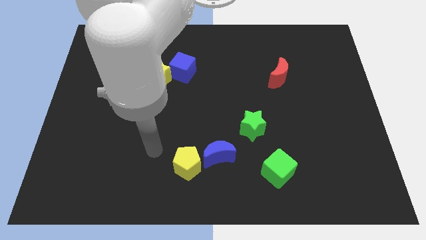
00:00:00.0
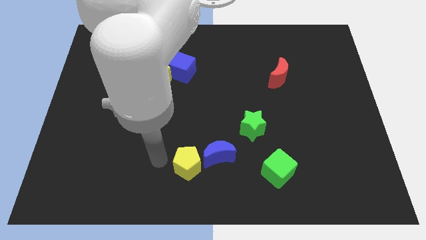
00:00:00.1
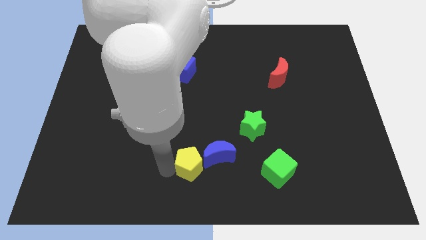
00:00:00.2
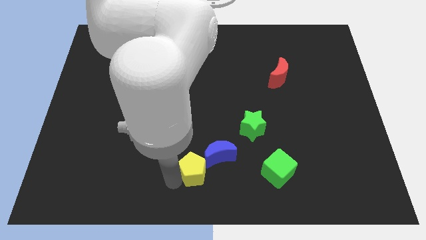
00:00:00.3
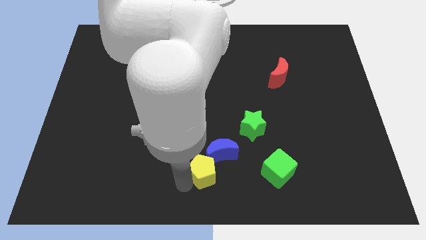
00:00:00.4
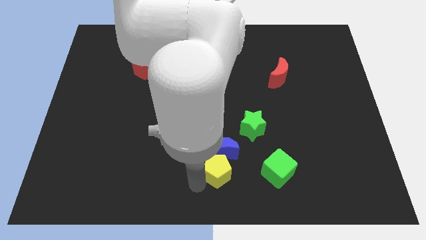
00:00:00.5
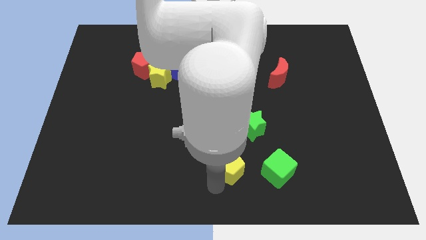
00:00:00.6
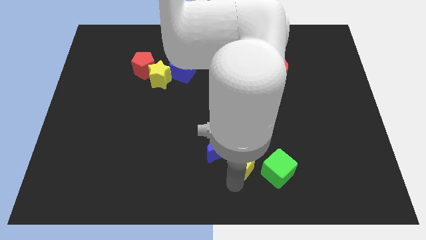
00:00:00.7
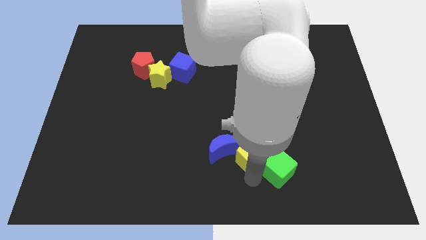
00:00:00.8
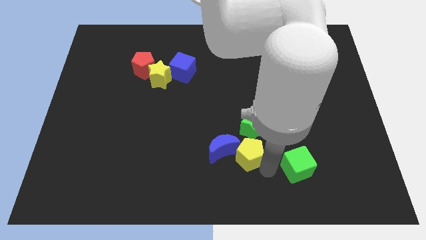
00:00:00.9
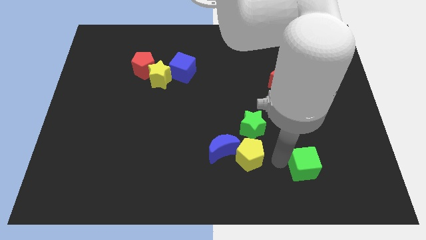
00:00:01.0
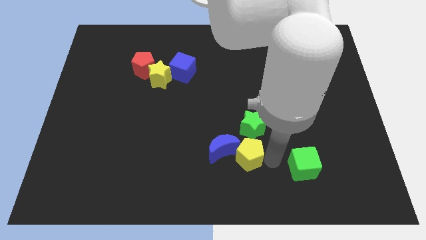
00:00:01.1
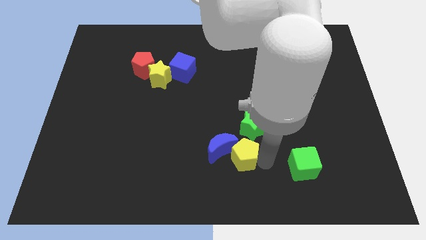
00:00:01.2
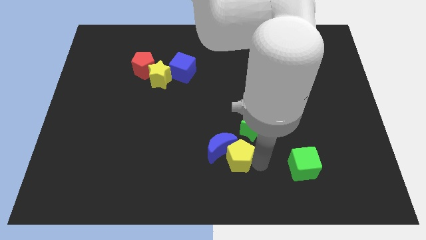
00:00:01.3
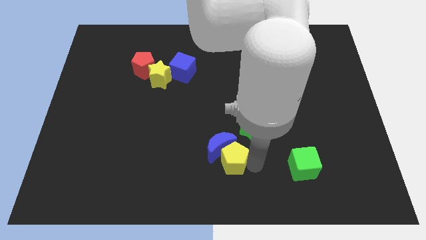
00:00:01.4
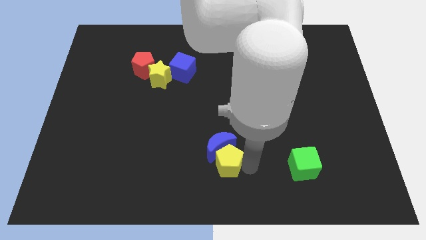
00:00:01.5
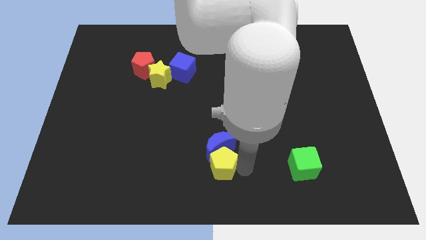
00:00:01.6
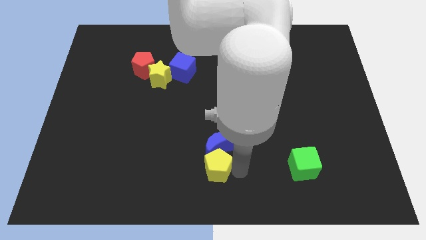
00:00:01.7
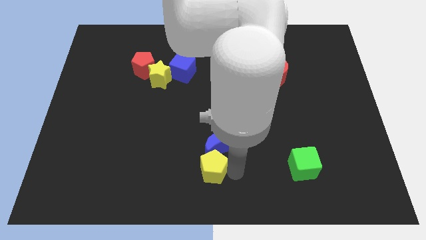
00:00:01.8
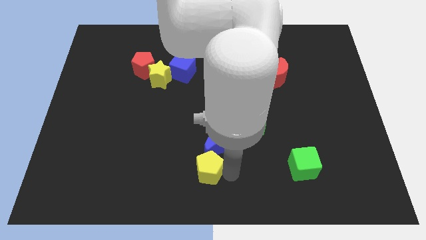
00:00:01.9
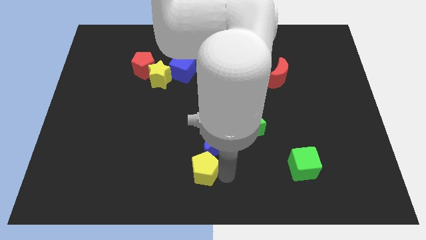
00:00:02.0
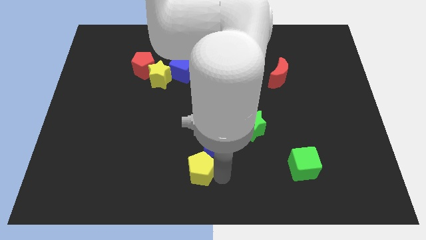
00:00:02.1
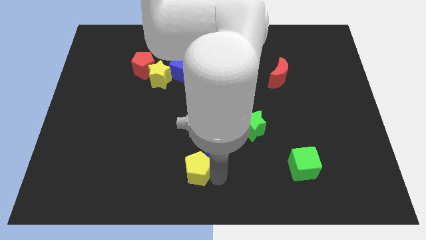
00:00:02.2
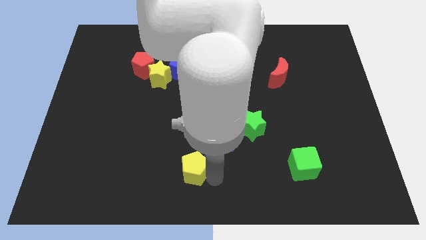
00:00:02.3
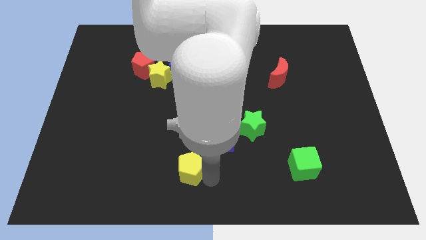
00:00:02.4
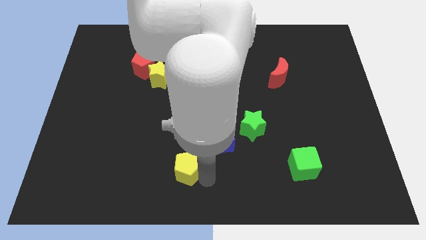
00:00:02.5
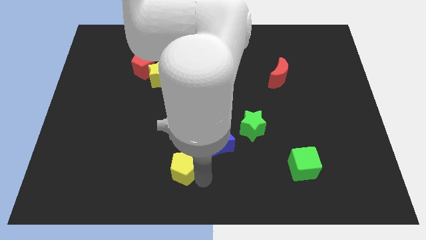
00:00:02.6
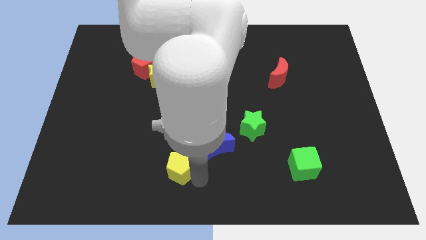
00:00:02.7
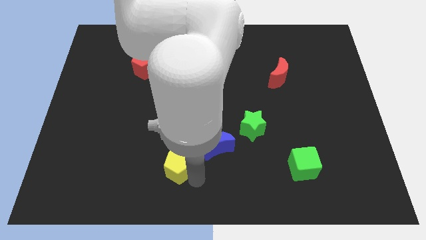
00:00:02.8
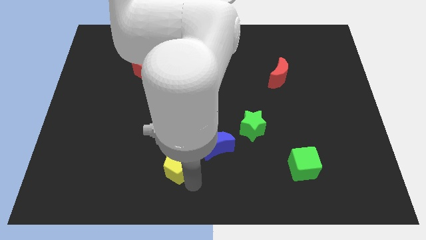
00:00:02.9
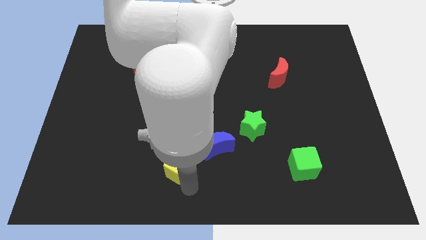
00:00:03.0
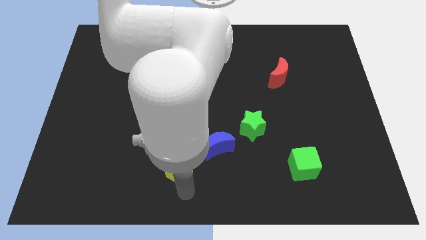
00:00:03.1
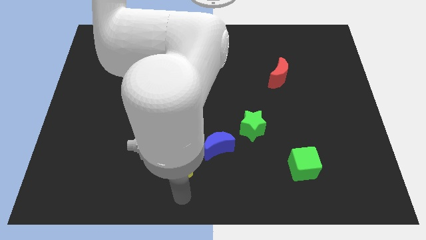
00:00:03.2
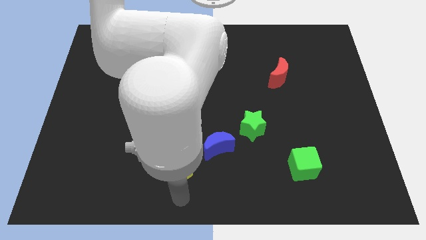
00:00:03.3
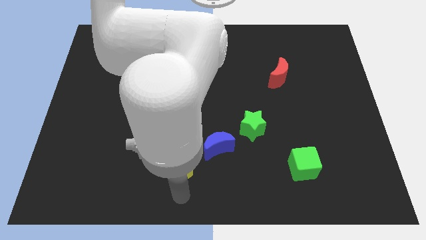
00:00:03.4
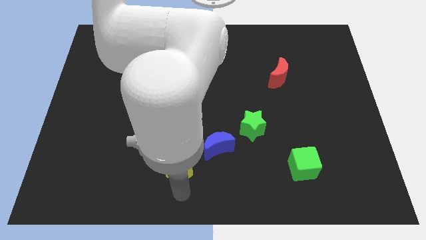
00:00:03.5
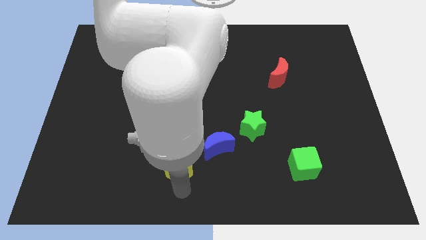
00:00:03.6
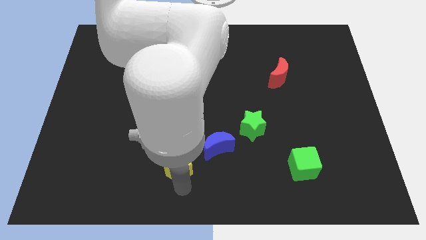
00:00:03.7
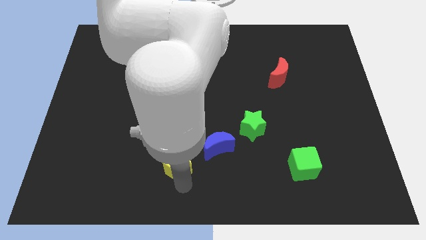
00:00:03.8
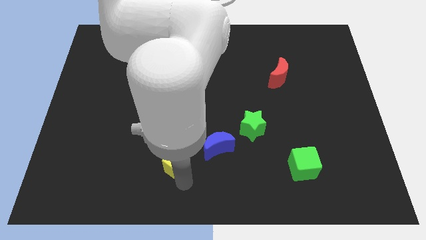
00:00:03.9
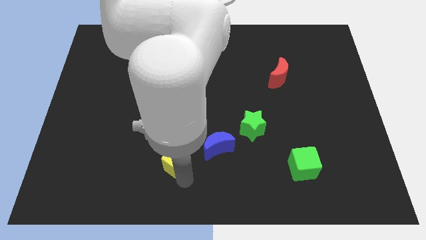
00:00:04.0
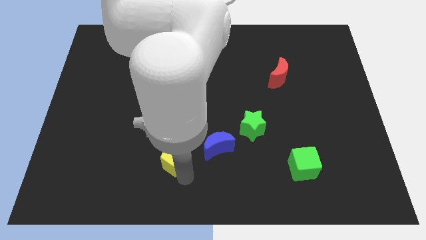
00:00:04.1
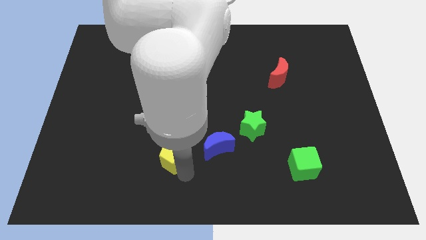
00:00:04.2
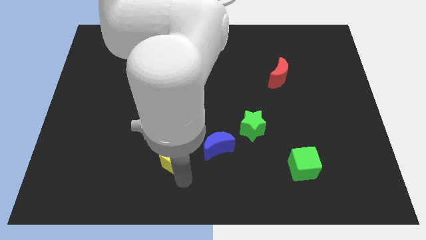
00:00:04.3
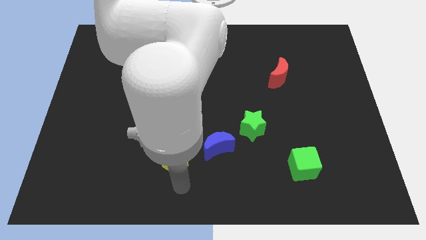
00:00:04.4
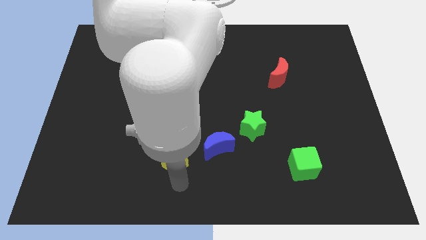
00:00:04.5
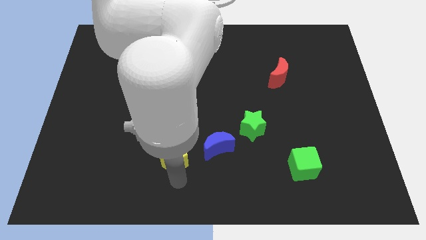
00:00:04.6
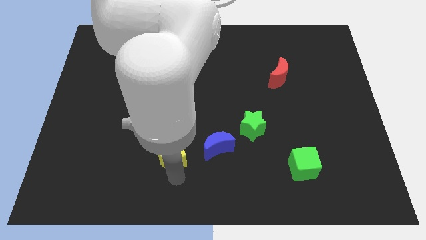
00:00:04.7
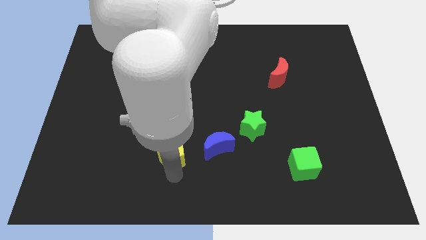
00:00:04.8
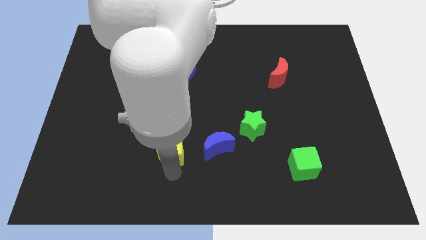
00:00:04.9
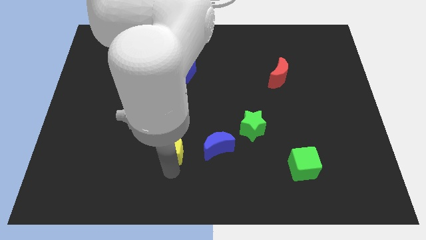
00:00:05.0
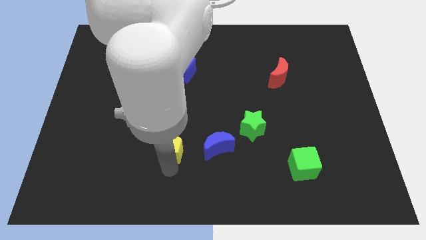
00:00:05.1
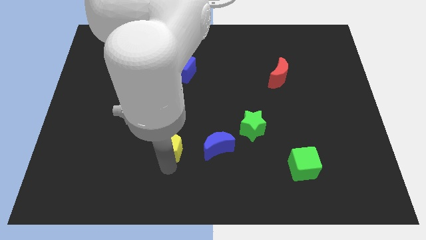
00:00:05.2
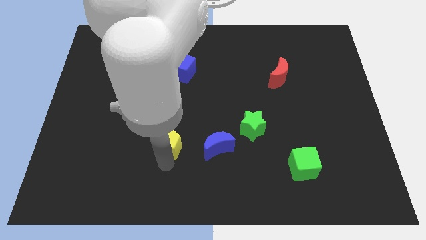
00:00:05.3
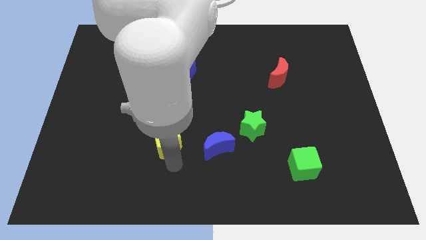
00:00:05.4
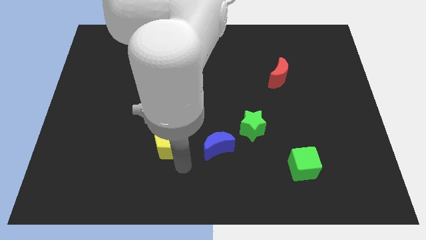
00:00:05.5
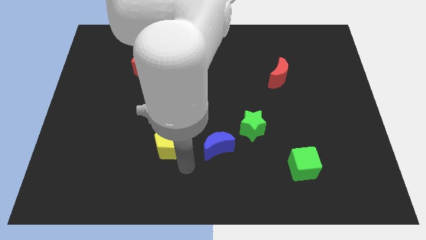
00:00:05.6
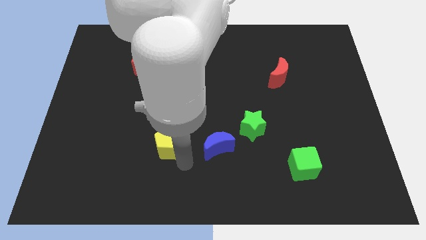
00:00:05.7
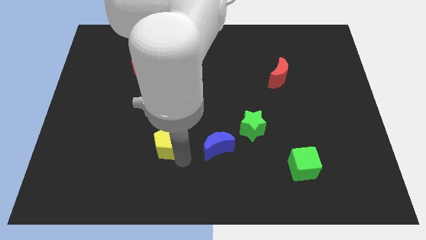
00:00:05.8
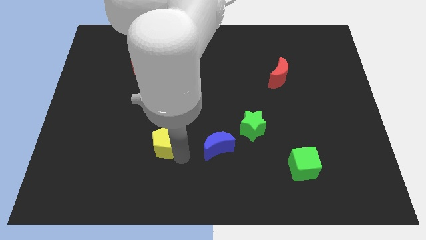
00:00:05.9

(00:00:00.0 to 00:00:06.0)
push the yellow pentagon a bit diagonally upwards and to the left

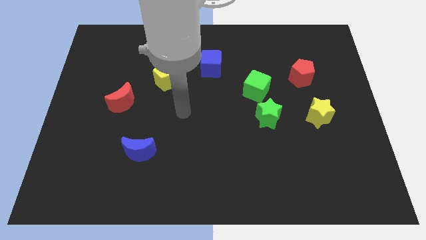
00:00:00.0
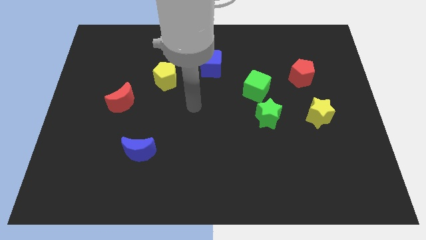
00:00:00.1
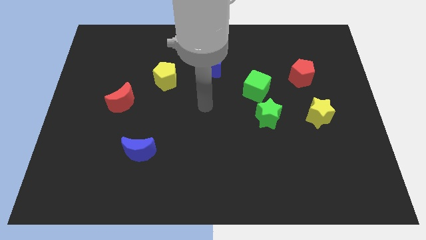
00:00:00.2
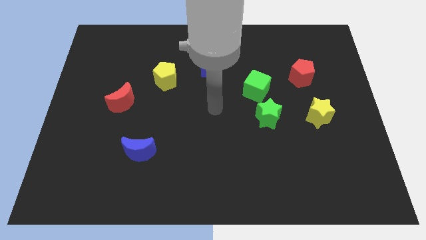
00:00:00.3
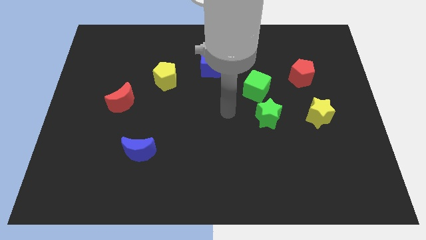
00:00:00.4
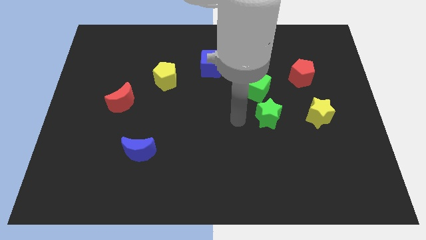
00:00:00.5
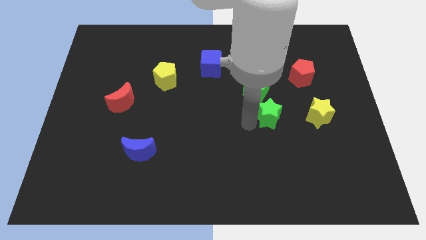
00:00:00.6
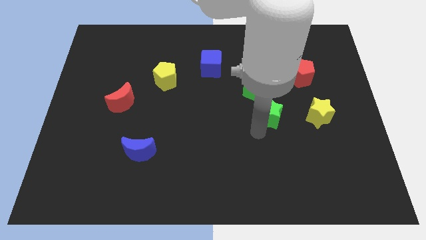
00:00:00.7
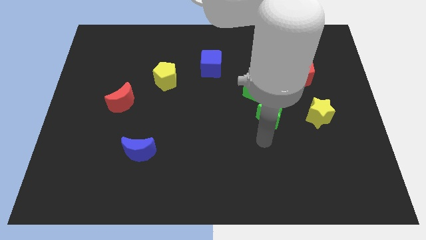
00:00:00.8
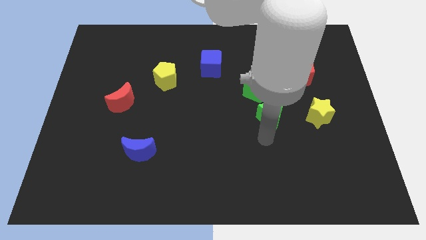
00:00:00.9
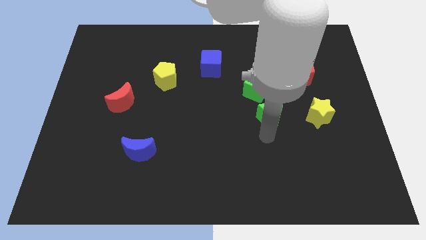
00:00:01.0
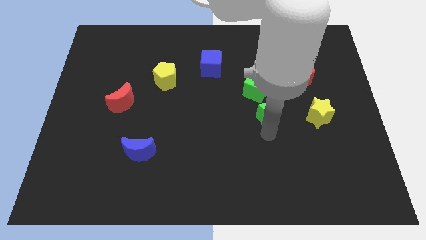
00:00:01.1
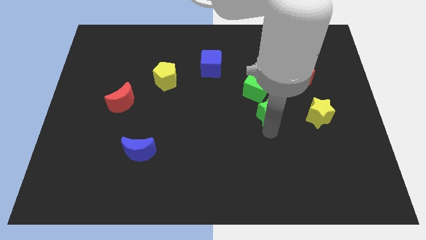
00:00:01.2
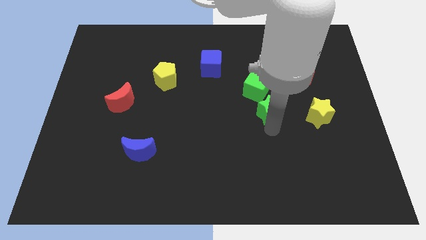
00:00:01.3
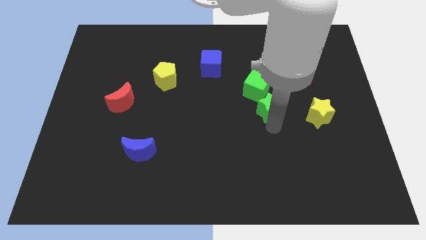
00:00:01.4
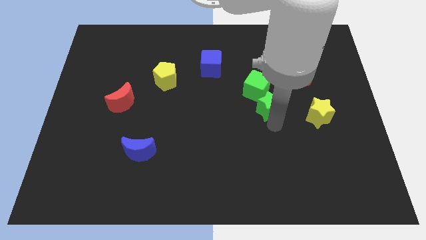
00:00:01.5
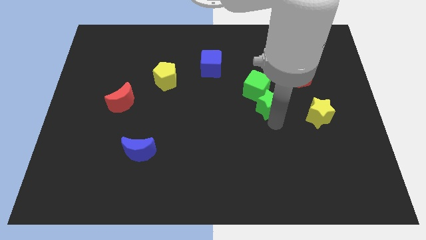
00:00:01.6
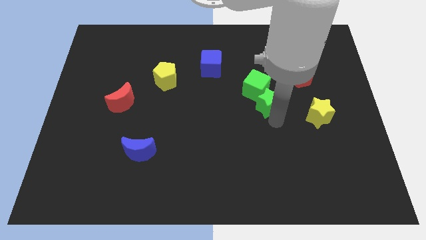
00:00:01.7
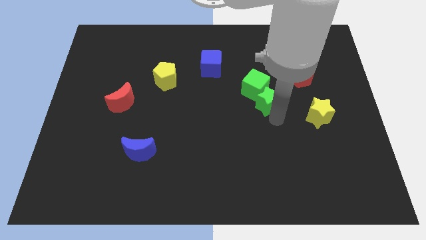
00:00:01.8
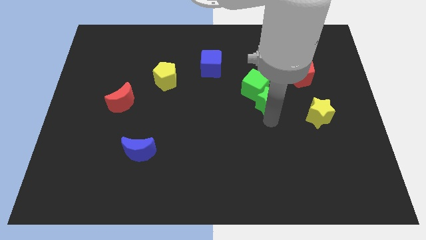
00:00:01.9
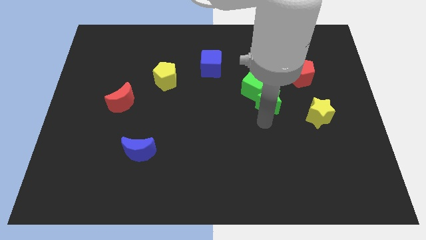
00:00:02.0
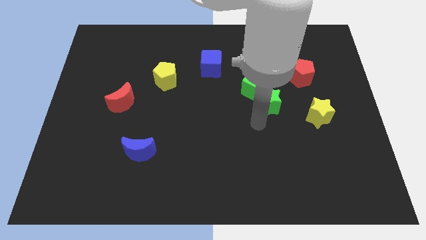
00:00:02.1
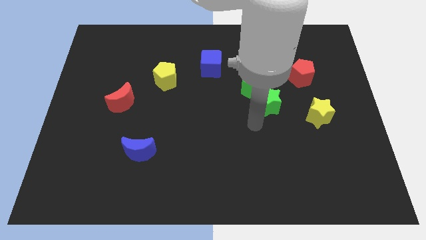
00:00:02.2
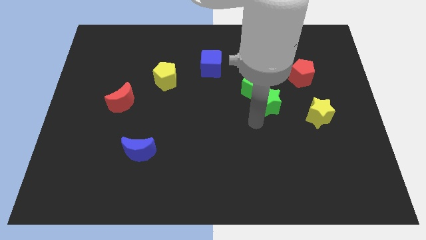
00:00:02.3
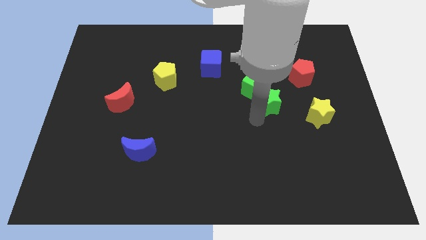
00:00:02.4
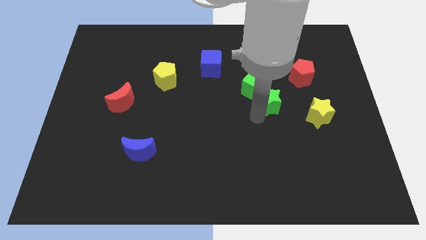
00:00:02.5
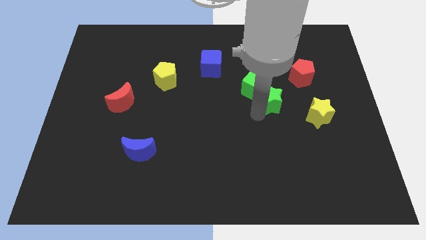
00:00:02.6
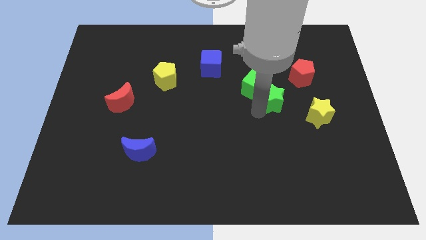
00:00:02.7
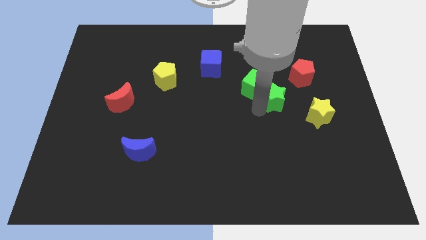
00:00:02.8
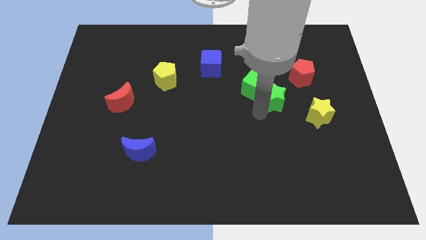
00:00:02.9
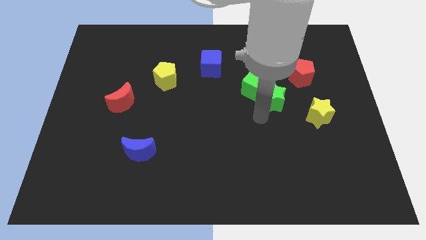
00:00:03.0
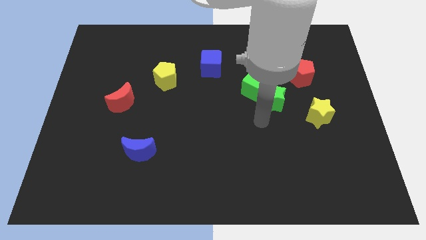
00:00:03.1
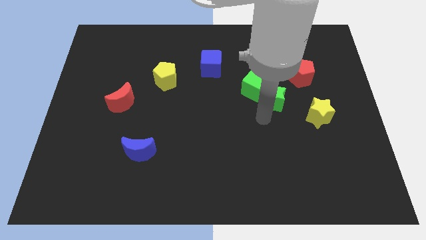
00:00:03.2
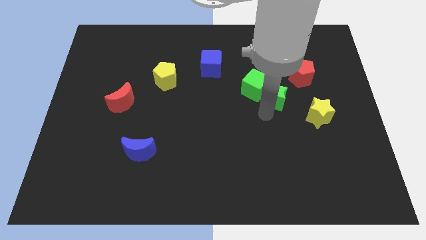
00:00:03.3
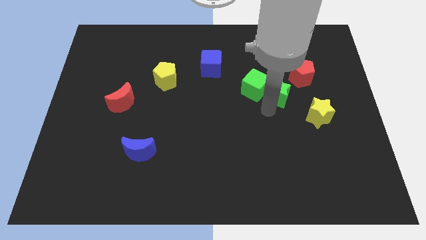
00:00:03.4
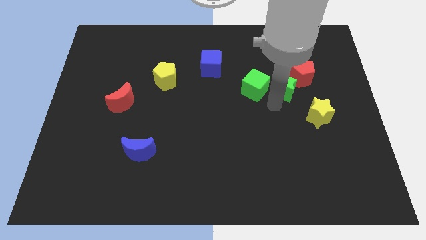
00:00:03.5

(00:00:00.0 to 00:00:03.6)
push the green star a bit up
